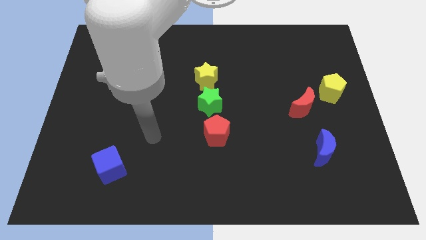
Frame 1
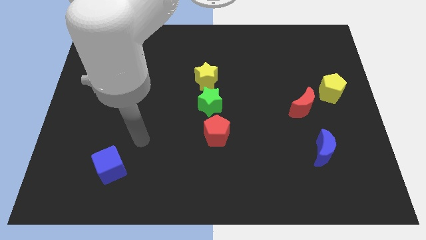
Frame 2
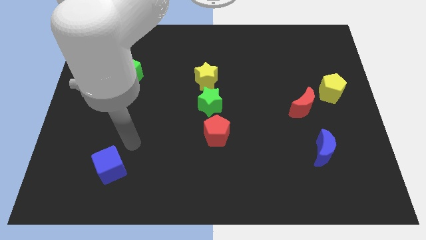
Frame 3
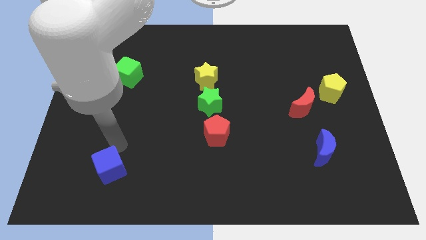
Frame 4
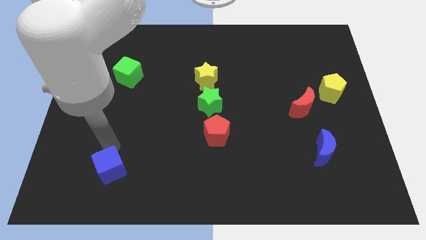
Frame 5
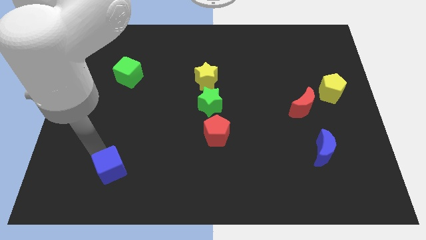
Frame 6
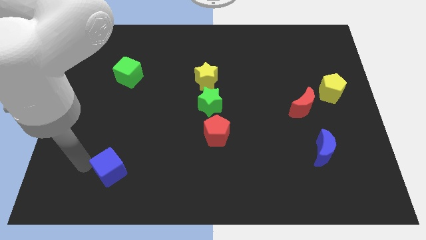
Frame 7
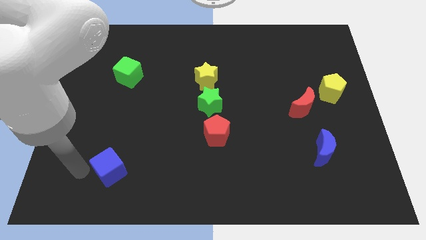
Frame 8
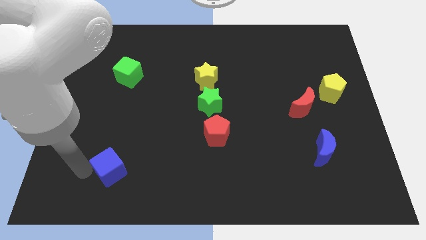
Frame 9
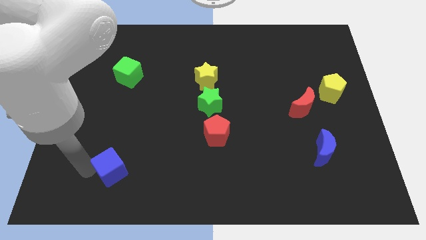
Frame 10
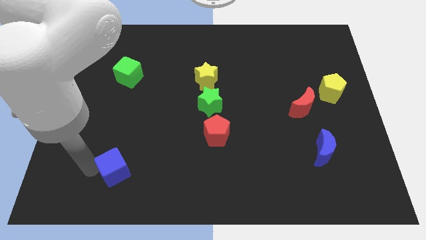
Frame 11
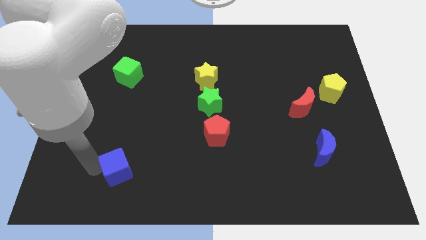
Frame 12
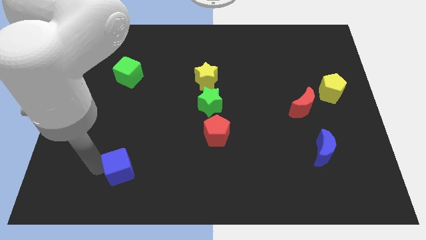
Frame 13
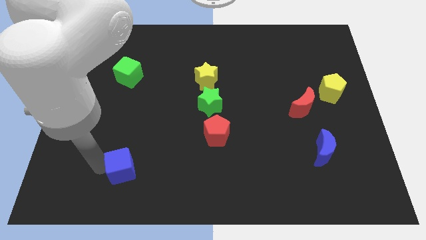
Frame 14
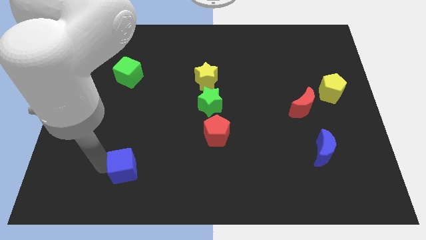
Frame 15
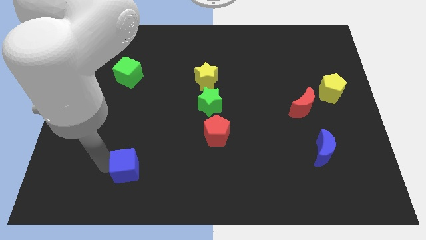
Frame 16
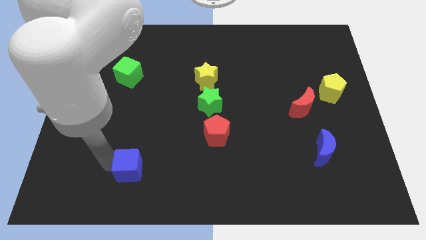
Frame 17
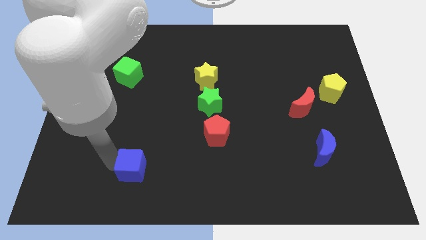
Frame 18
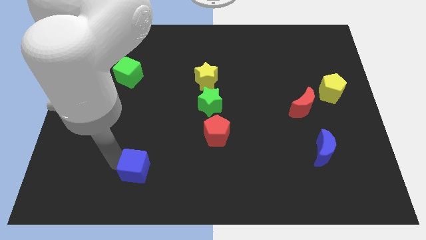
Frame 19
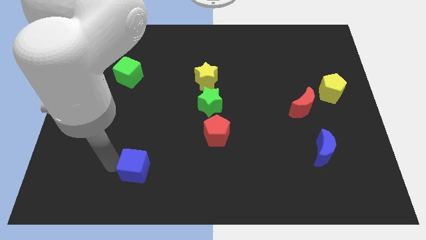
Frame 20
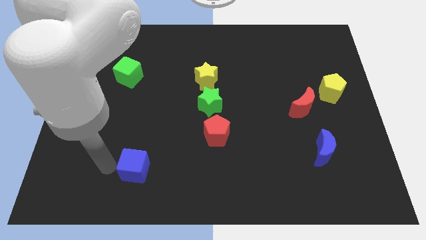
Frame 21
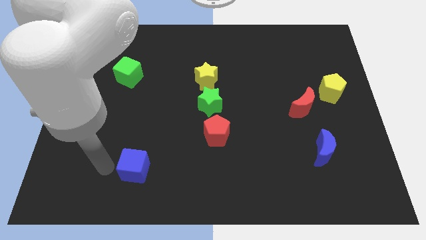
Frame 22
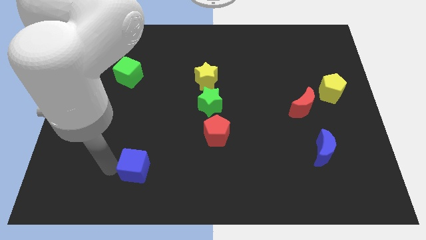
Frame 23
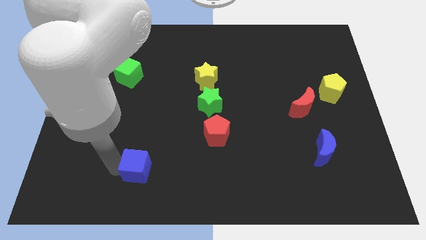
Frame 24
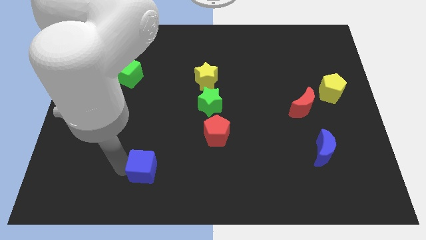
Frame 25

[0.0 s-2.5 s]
slide the blue cube to the right a little bit

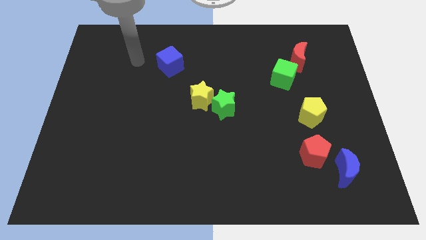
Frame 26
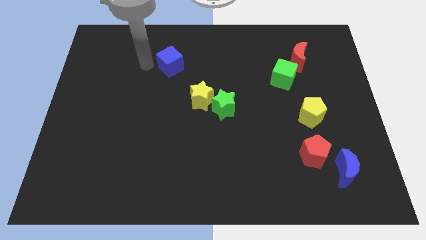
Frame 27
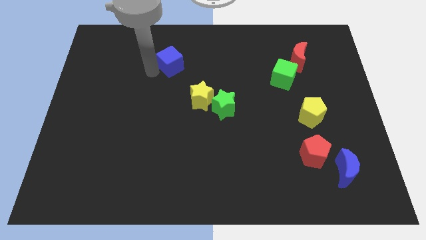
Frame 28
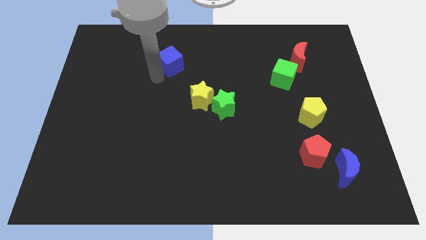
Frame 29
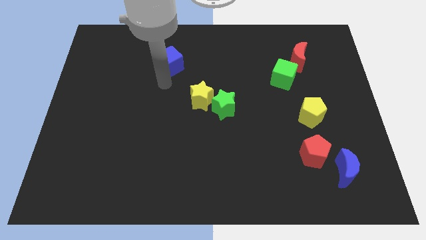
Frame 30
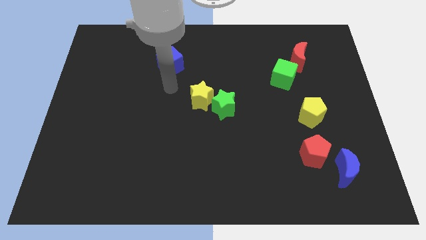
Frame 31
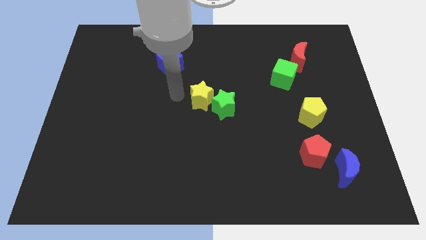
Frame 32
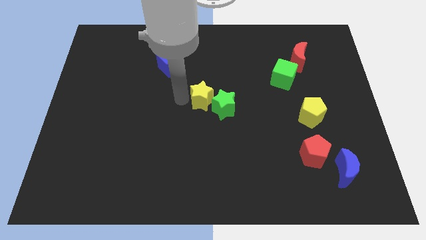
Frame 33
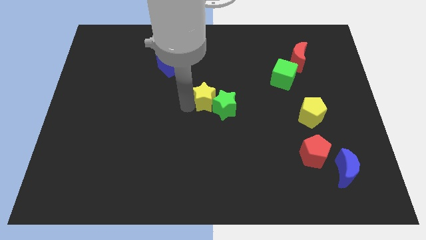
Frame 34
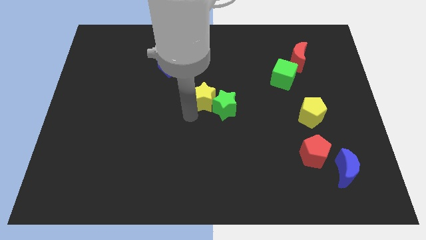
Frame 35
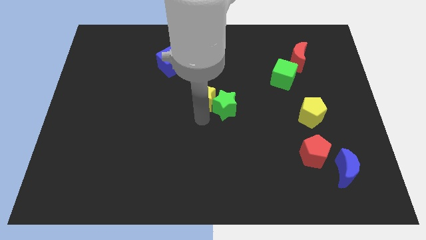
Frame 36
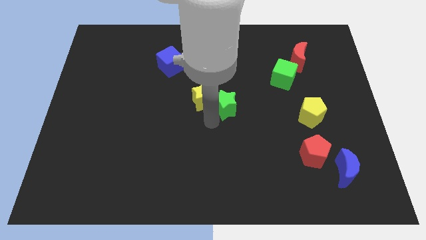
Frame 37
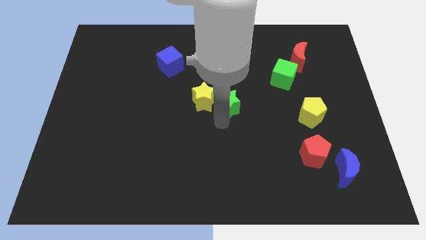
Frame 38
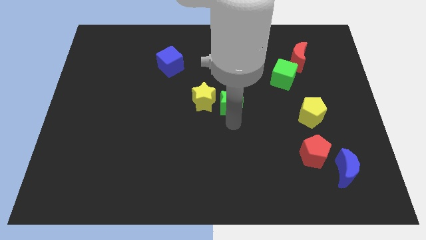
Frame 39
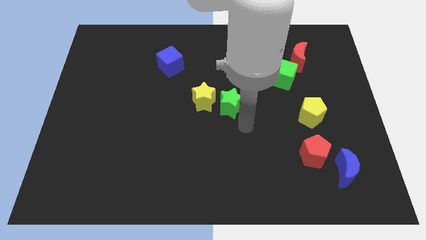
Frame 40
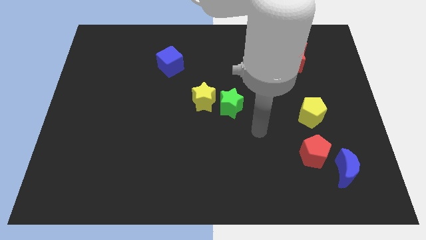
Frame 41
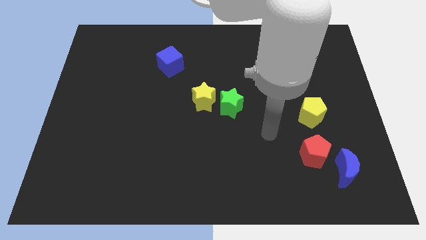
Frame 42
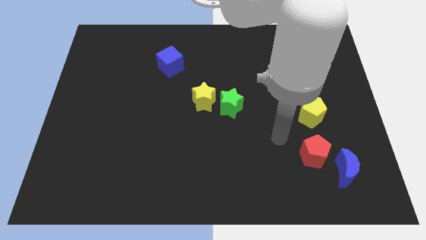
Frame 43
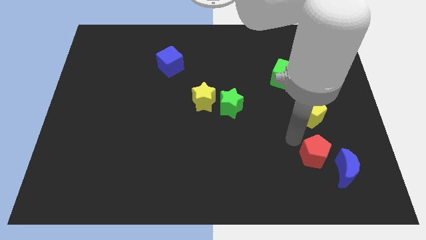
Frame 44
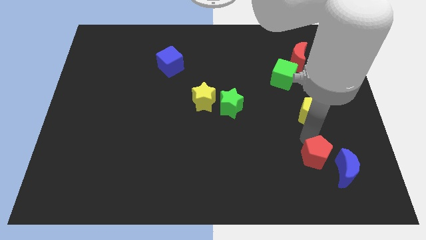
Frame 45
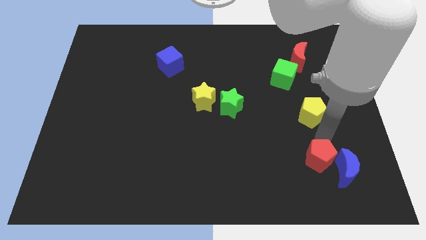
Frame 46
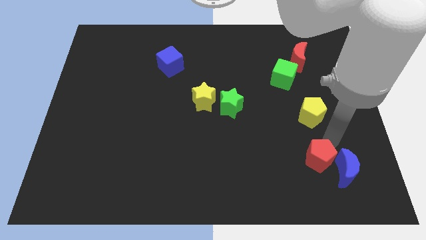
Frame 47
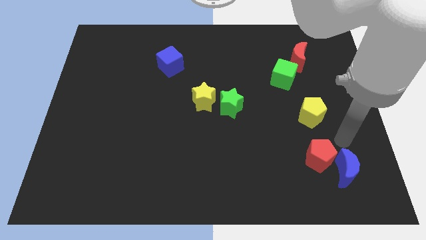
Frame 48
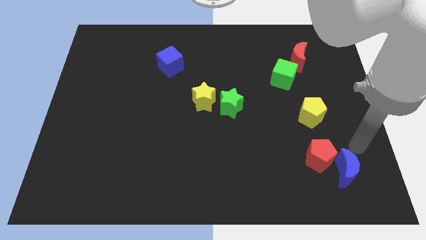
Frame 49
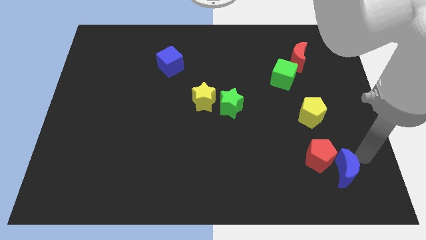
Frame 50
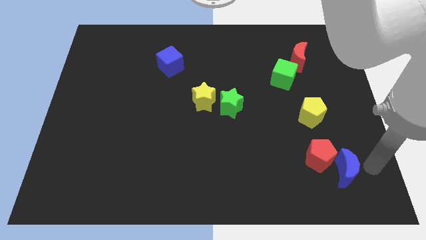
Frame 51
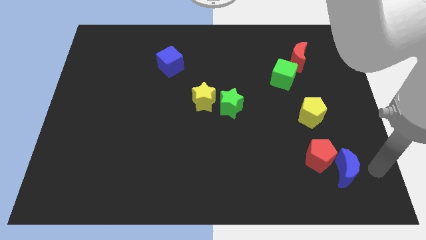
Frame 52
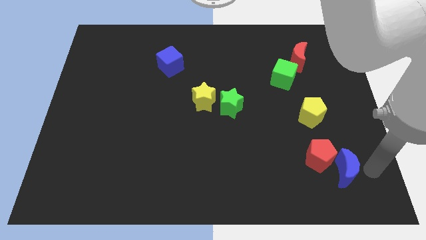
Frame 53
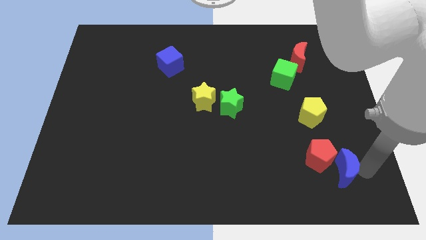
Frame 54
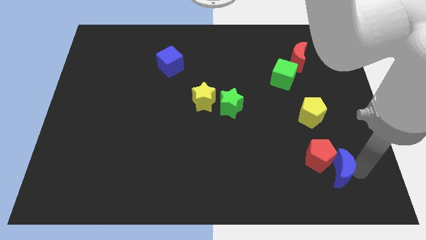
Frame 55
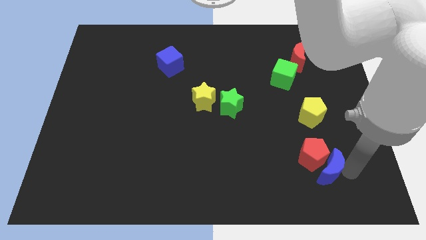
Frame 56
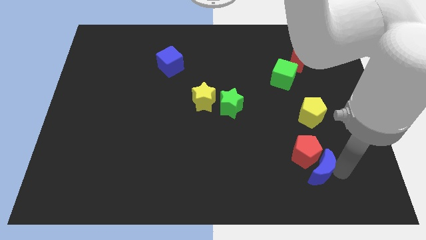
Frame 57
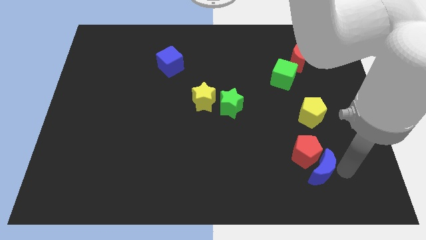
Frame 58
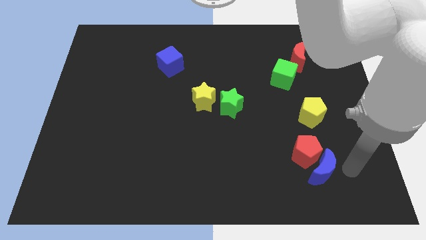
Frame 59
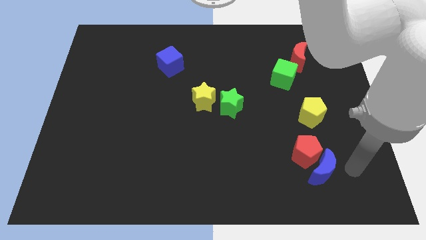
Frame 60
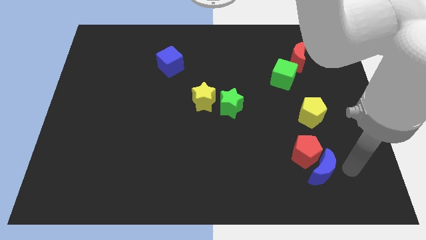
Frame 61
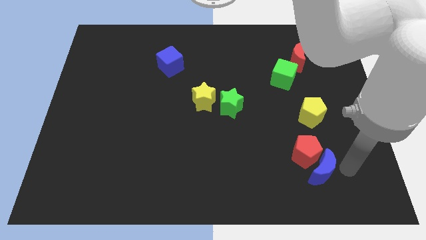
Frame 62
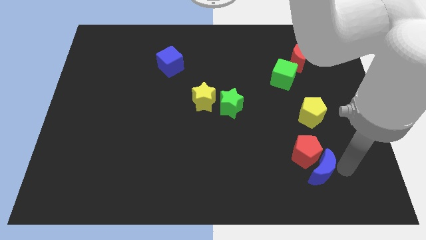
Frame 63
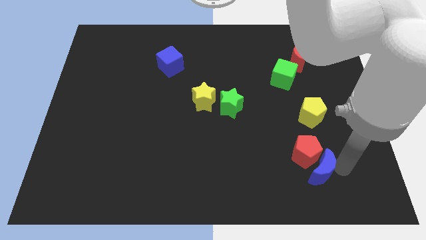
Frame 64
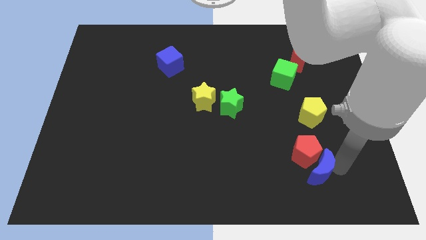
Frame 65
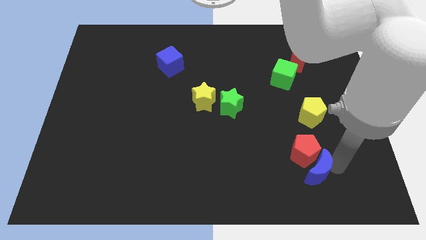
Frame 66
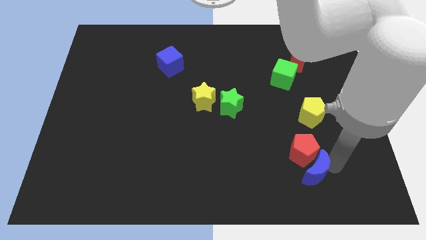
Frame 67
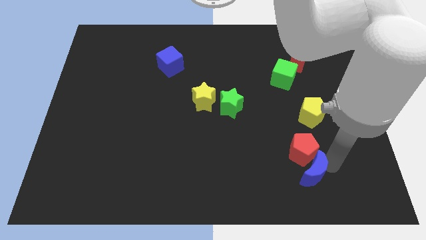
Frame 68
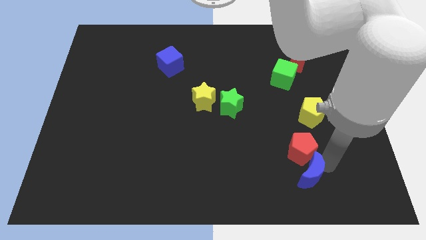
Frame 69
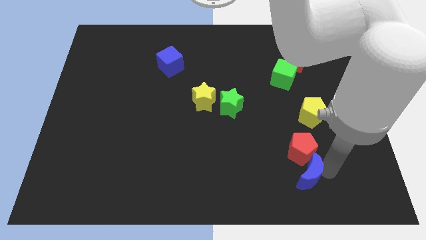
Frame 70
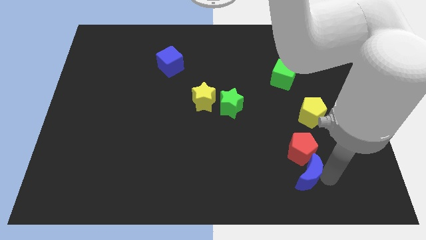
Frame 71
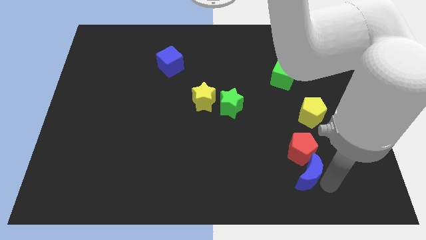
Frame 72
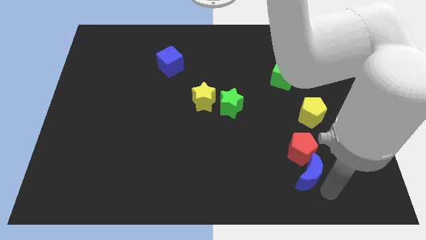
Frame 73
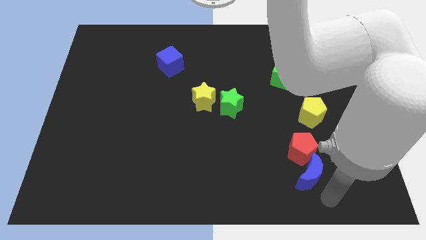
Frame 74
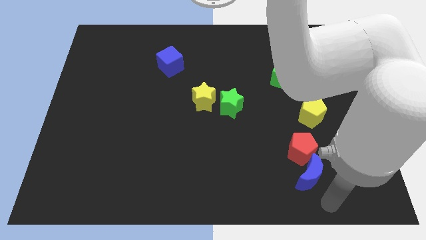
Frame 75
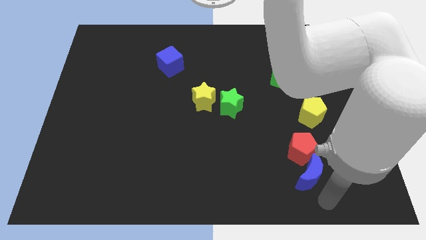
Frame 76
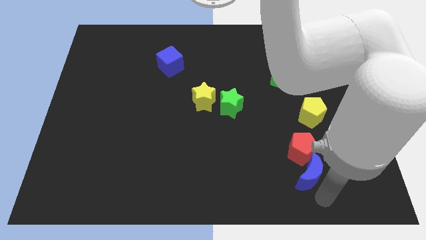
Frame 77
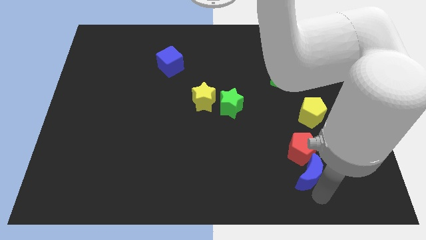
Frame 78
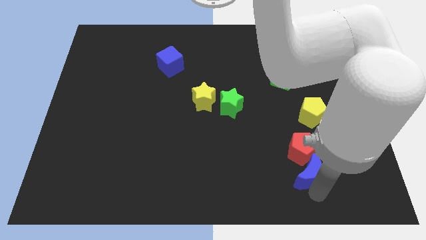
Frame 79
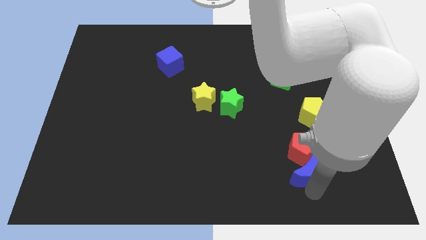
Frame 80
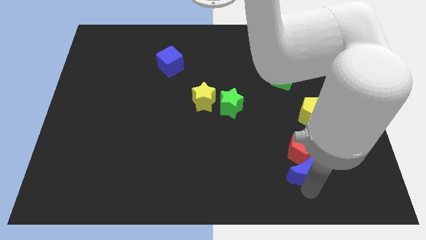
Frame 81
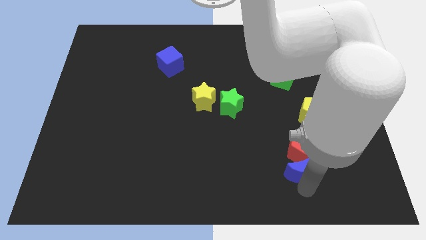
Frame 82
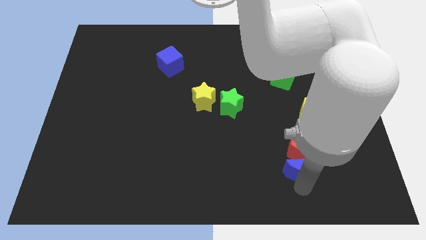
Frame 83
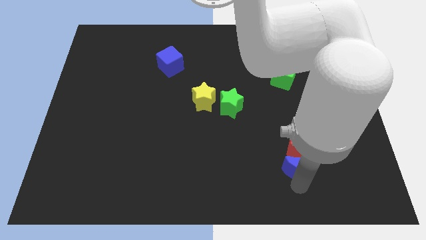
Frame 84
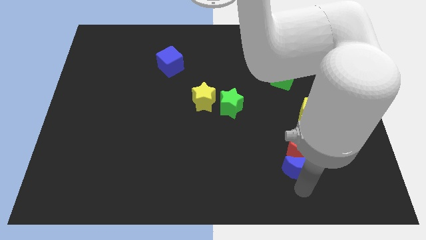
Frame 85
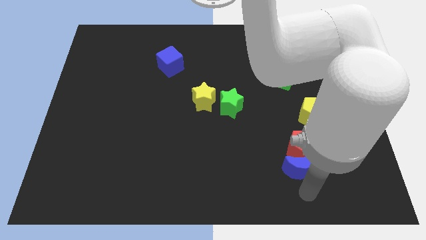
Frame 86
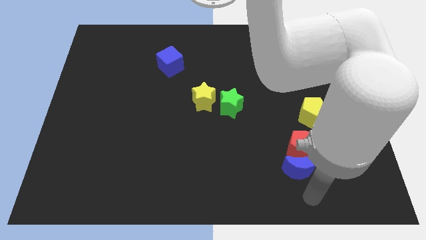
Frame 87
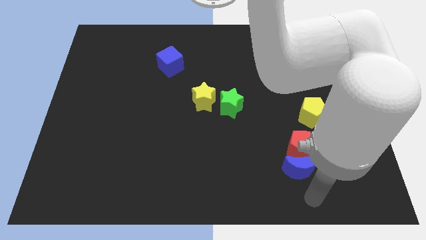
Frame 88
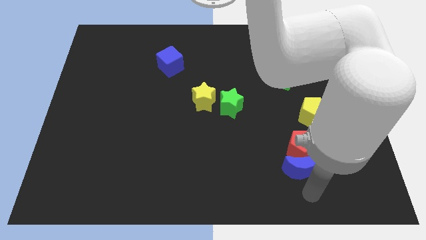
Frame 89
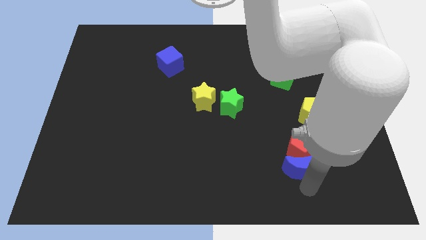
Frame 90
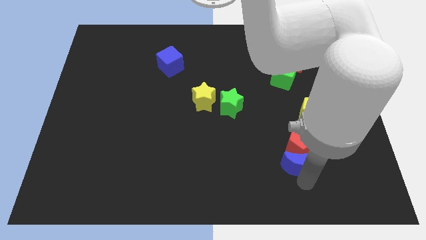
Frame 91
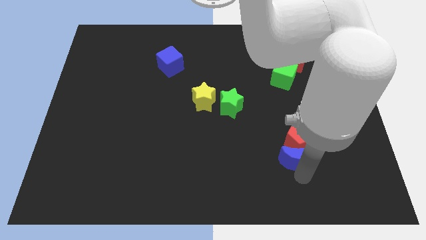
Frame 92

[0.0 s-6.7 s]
slide the blue moon a little bit diagonally up and left
